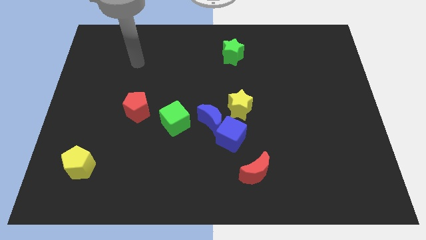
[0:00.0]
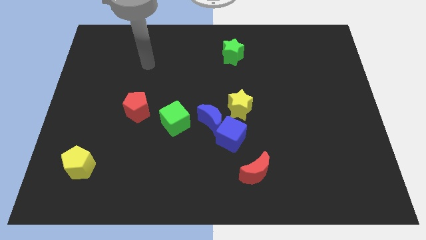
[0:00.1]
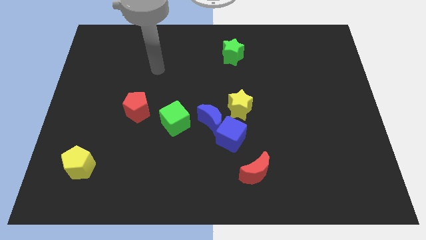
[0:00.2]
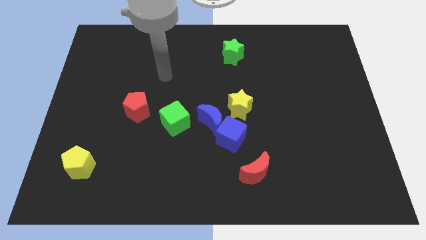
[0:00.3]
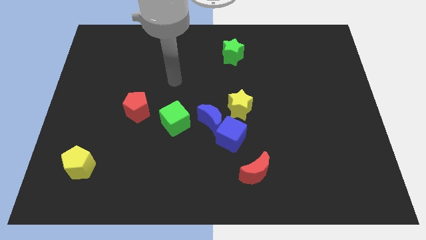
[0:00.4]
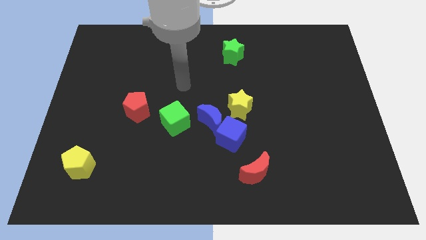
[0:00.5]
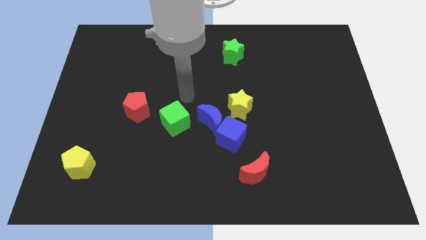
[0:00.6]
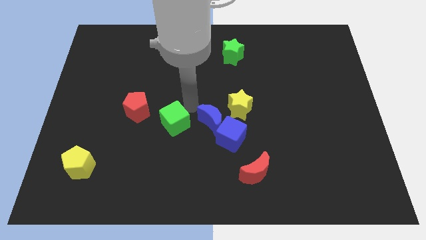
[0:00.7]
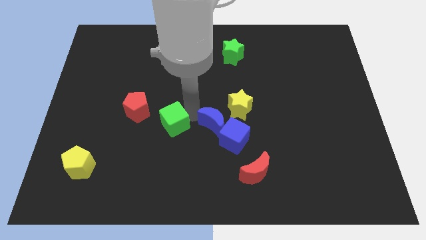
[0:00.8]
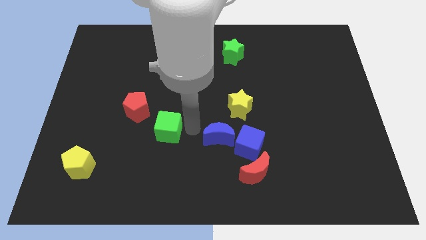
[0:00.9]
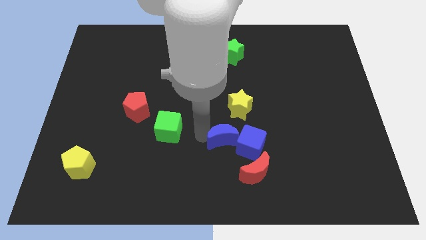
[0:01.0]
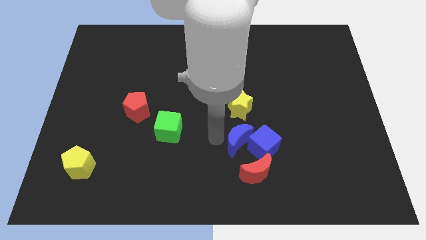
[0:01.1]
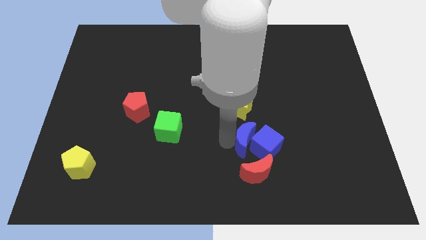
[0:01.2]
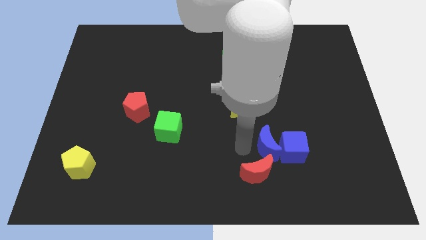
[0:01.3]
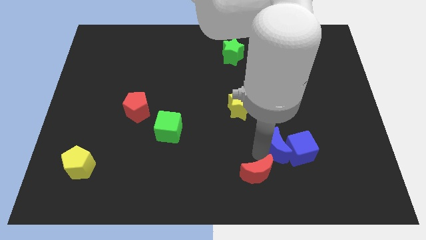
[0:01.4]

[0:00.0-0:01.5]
pull the blue moon apart from the group of blocks

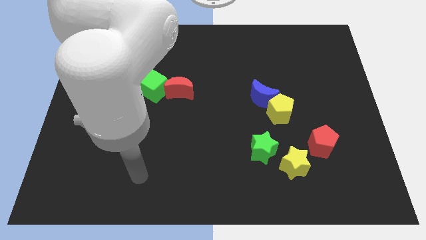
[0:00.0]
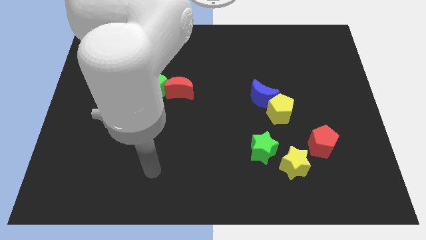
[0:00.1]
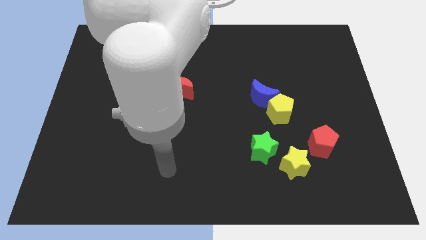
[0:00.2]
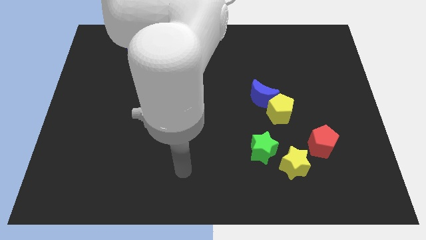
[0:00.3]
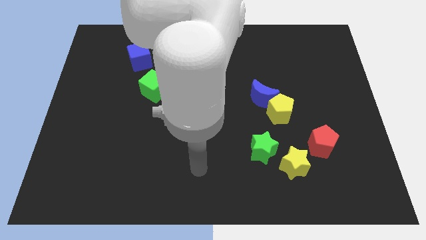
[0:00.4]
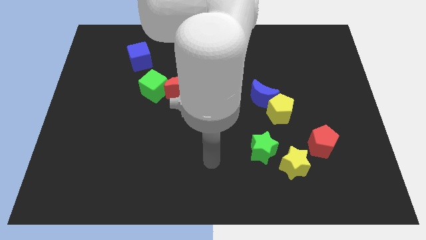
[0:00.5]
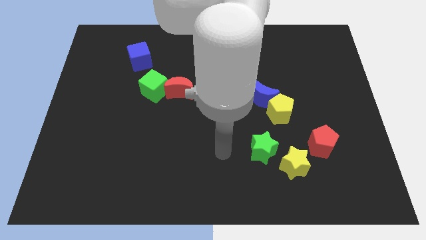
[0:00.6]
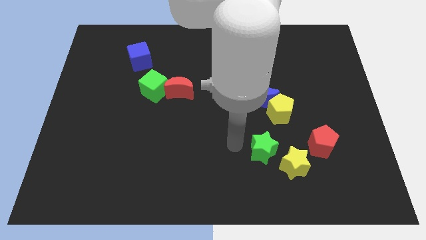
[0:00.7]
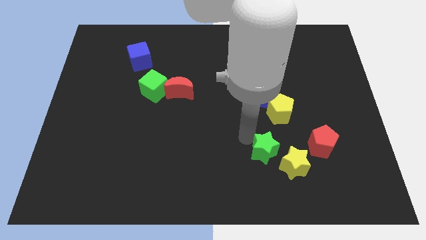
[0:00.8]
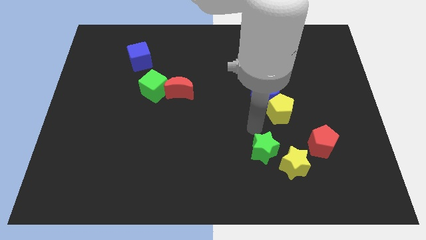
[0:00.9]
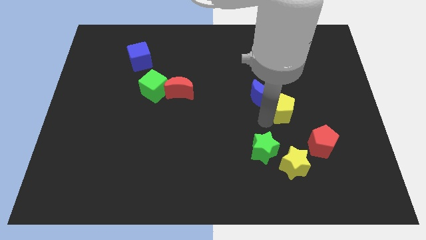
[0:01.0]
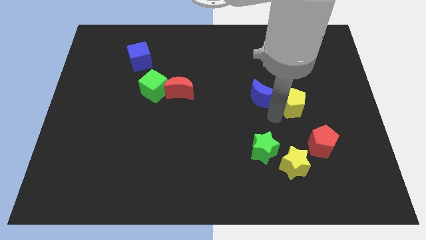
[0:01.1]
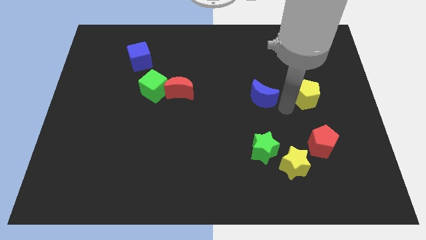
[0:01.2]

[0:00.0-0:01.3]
separate the blue moon from the yellow pentagon

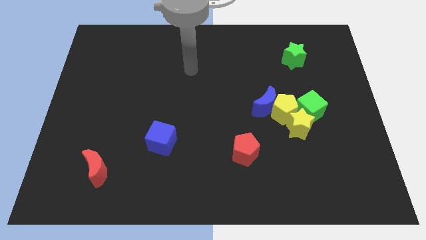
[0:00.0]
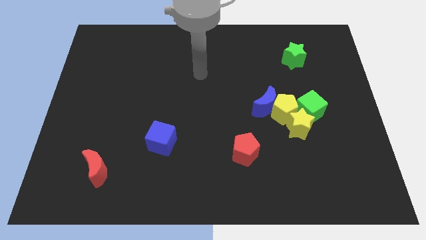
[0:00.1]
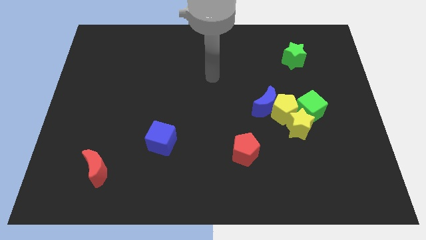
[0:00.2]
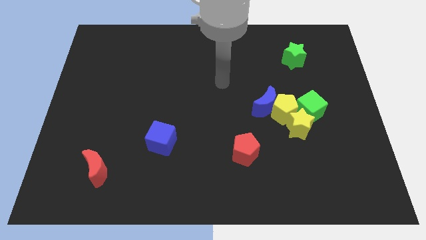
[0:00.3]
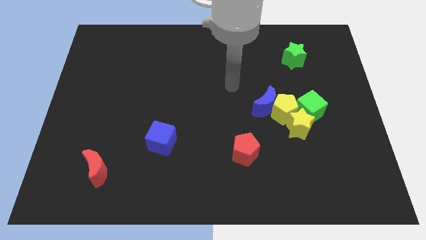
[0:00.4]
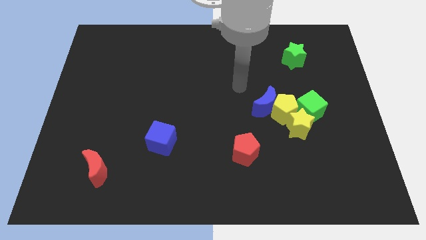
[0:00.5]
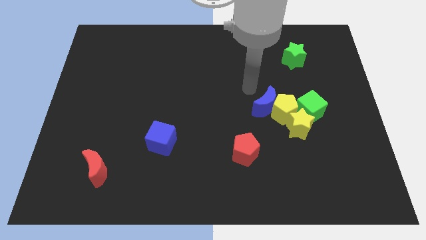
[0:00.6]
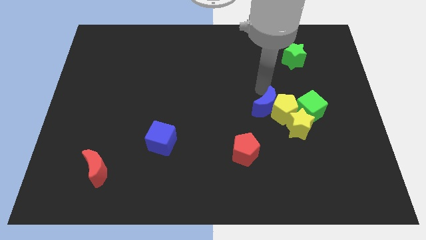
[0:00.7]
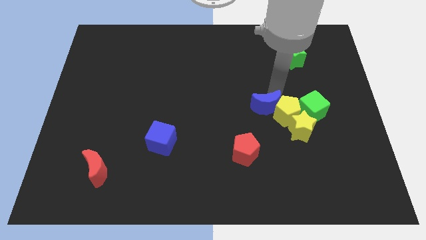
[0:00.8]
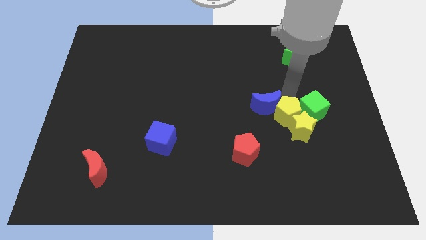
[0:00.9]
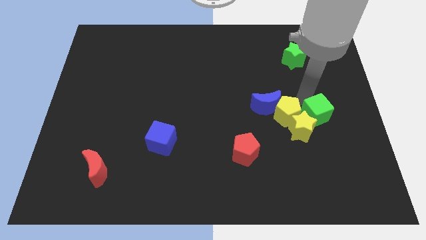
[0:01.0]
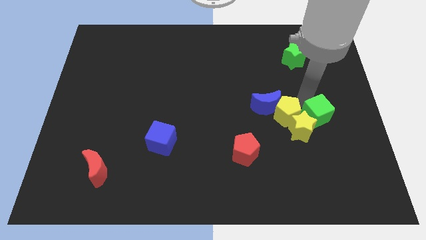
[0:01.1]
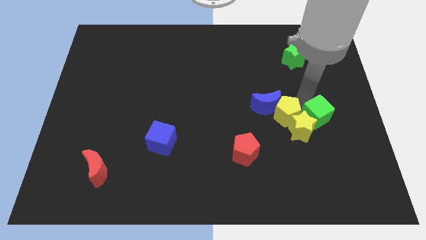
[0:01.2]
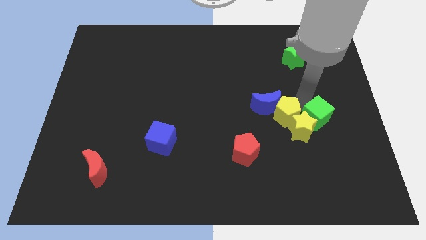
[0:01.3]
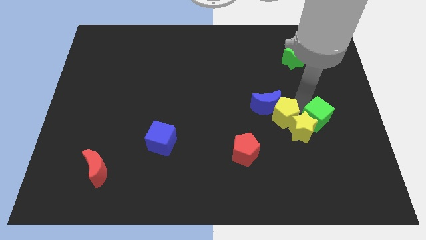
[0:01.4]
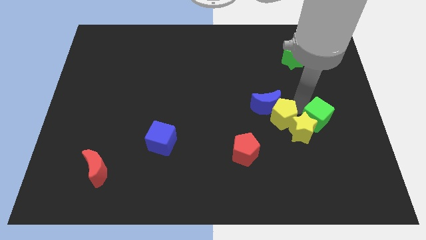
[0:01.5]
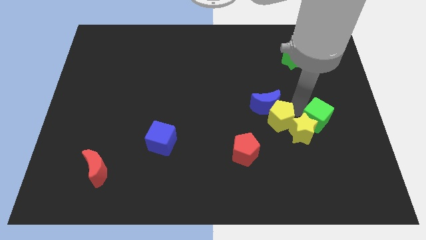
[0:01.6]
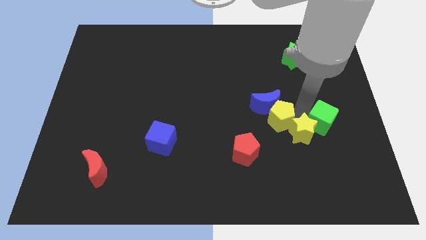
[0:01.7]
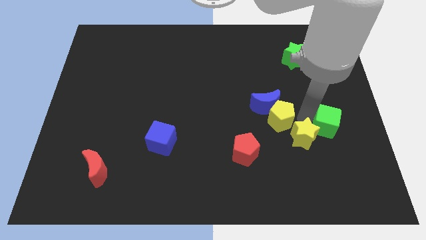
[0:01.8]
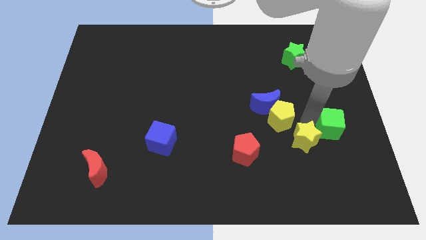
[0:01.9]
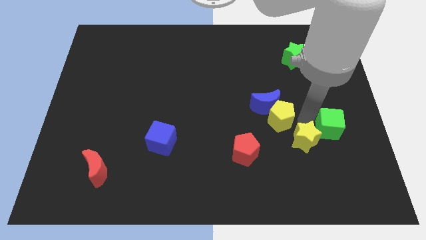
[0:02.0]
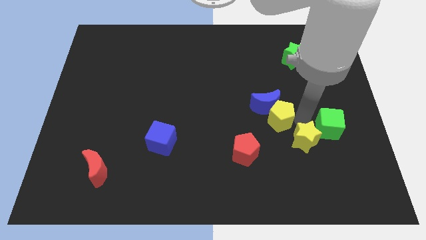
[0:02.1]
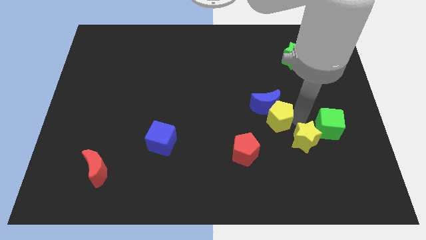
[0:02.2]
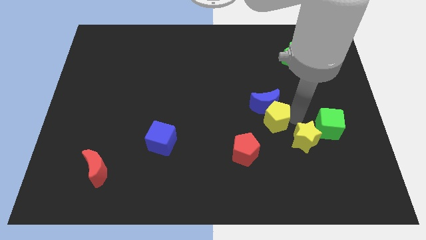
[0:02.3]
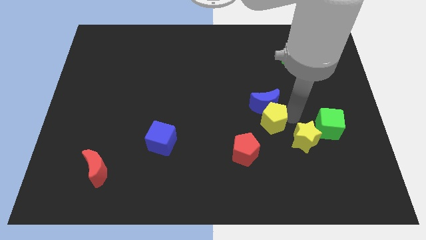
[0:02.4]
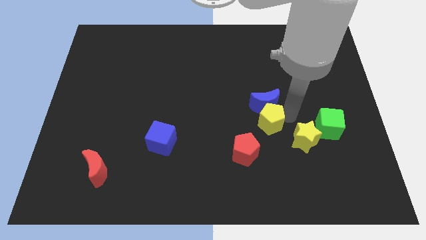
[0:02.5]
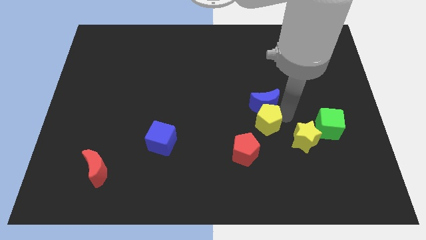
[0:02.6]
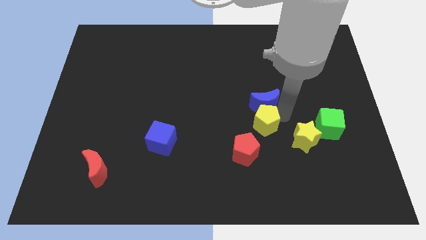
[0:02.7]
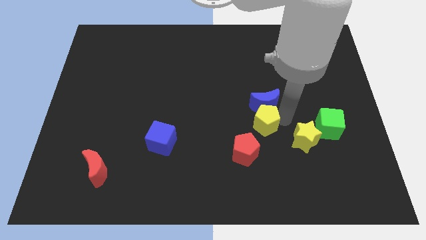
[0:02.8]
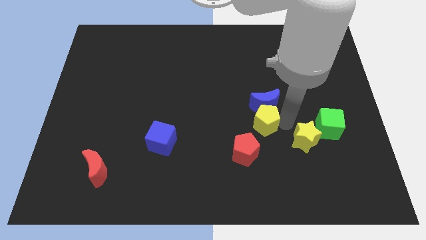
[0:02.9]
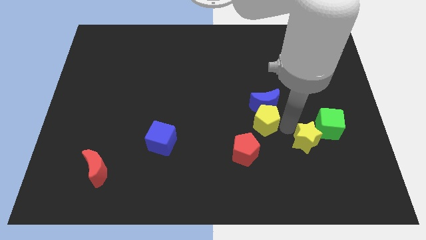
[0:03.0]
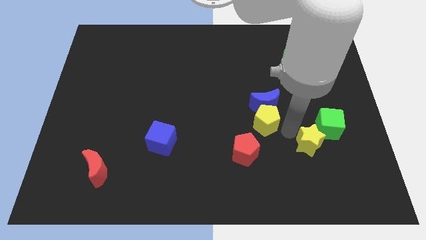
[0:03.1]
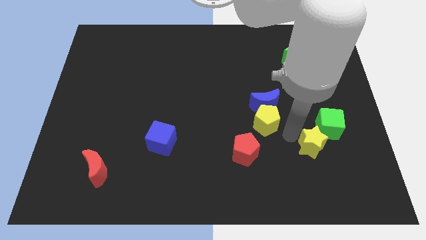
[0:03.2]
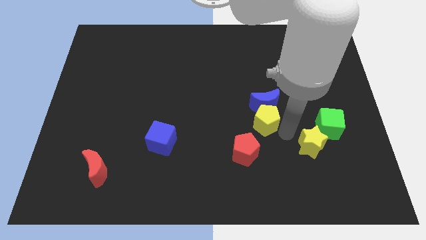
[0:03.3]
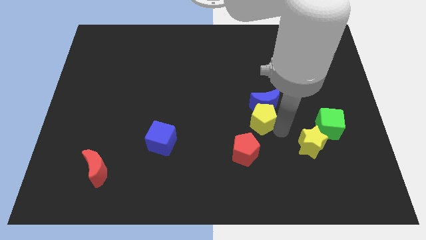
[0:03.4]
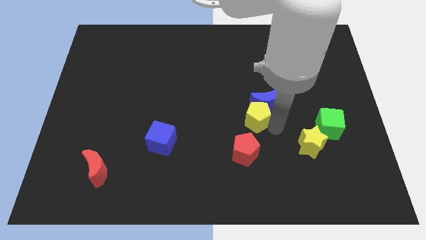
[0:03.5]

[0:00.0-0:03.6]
separate the yellow pentagon from the blue moon, yellow star, and green cube

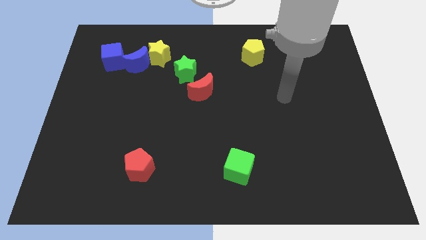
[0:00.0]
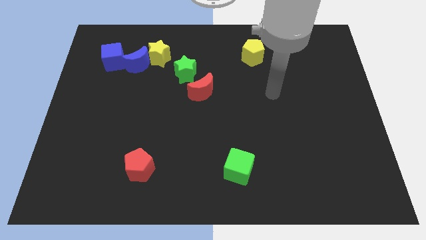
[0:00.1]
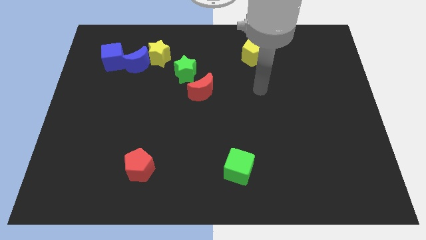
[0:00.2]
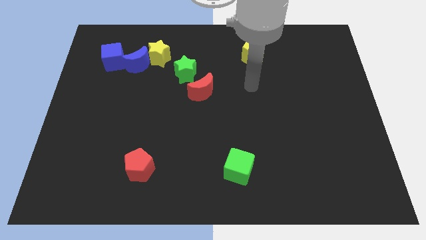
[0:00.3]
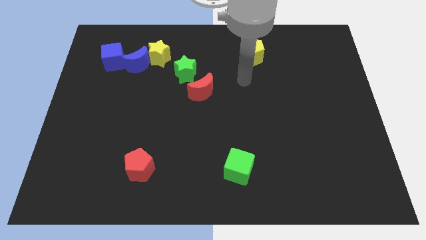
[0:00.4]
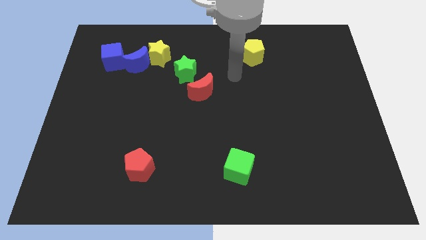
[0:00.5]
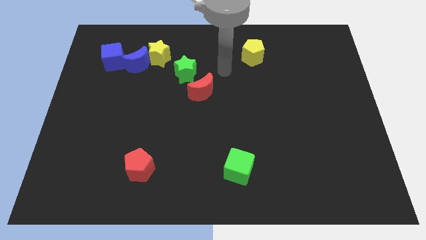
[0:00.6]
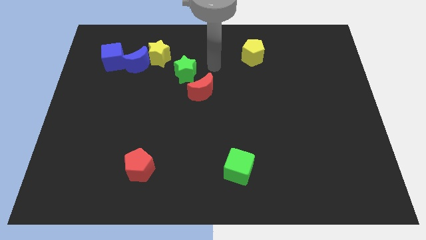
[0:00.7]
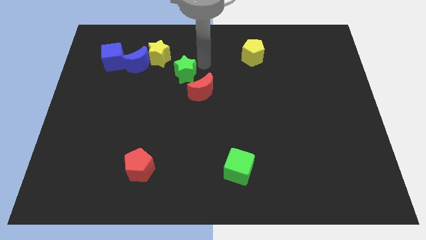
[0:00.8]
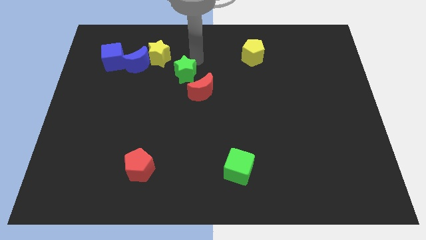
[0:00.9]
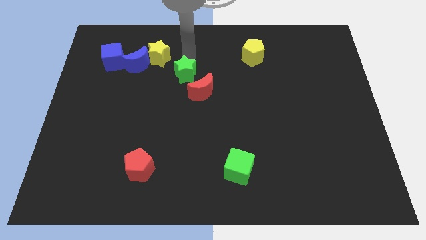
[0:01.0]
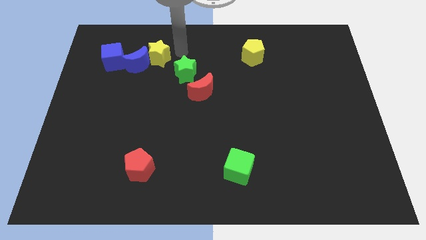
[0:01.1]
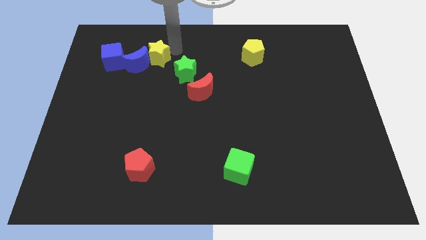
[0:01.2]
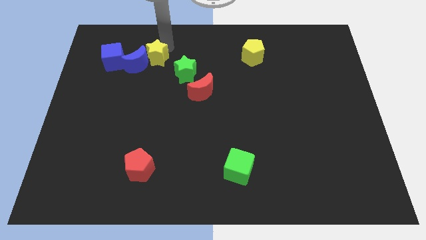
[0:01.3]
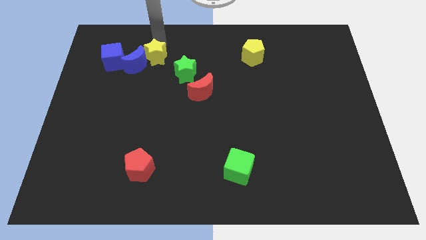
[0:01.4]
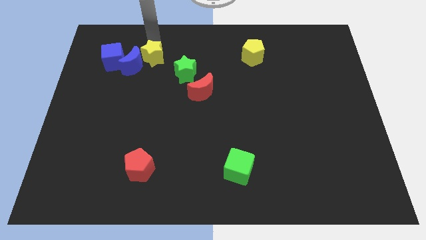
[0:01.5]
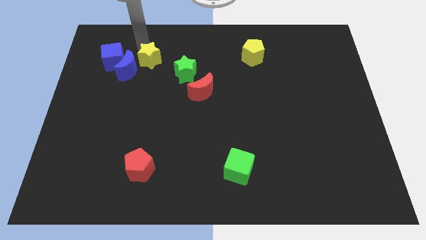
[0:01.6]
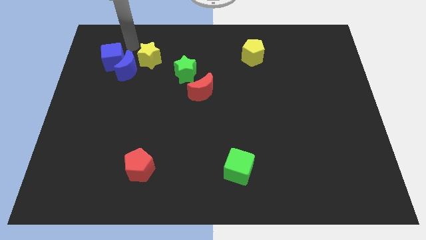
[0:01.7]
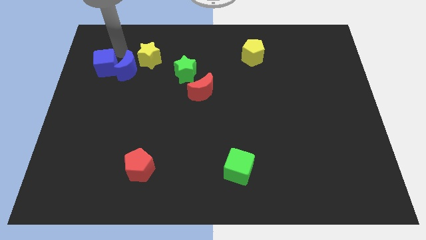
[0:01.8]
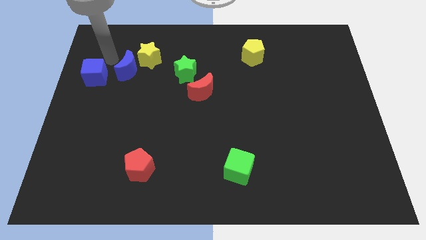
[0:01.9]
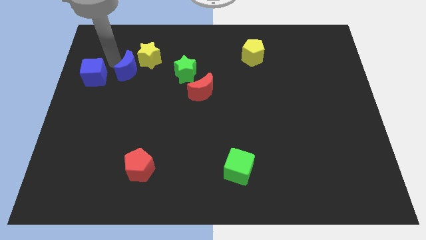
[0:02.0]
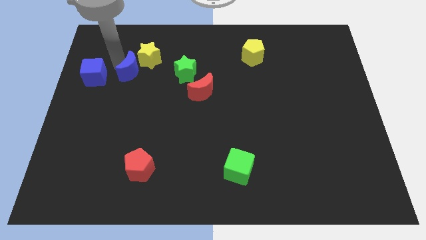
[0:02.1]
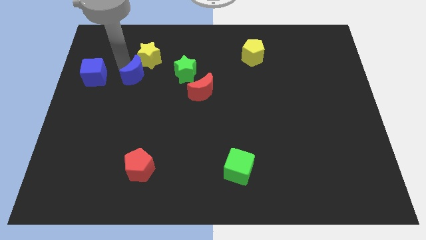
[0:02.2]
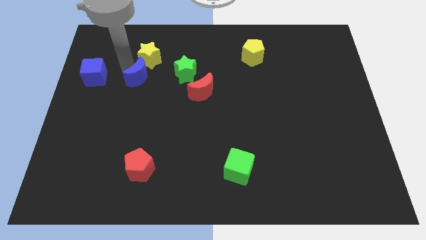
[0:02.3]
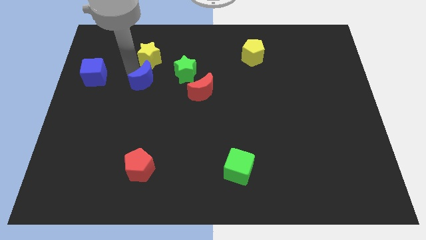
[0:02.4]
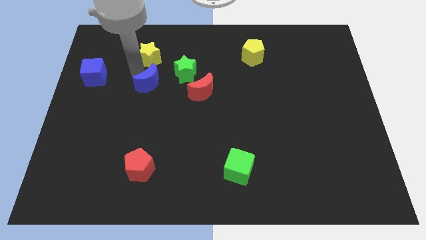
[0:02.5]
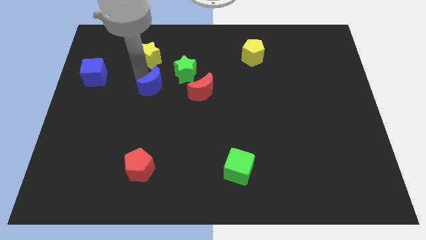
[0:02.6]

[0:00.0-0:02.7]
separate the blue moon from the yellow star and blue cube

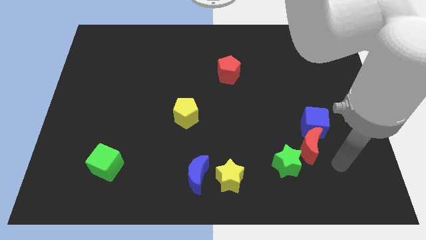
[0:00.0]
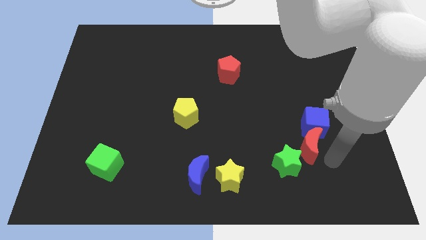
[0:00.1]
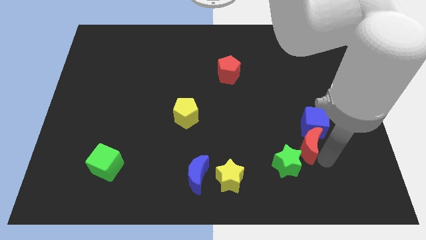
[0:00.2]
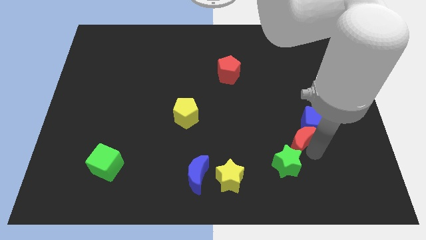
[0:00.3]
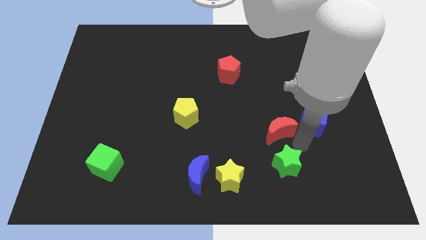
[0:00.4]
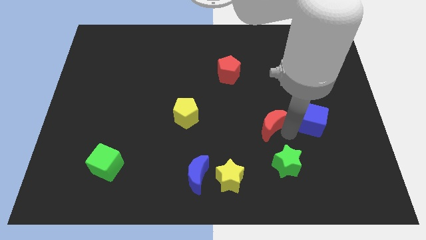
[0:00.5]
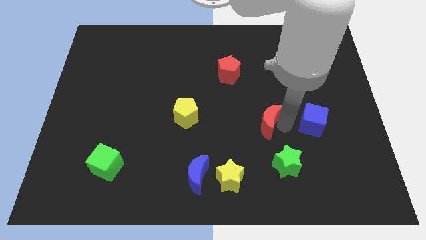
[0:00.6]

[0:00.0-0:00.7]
separate the blue cube from the red moon
